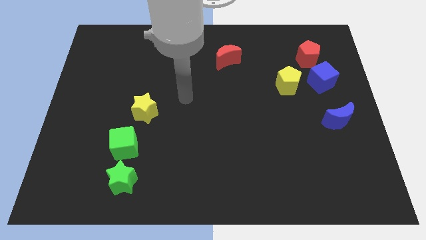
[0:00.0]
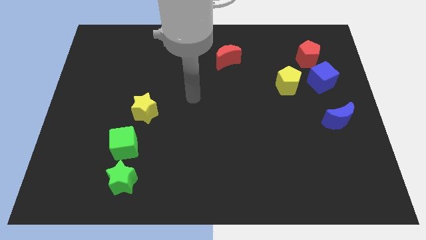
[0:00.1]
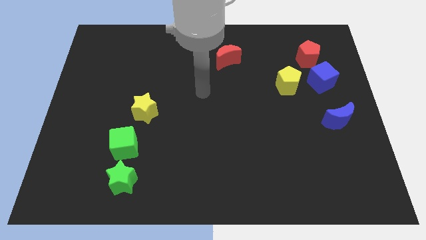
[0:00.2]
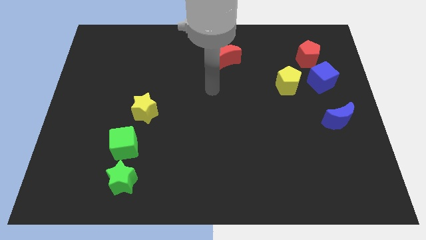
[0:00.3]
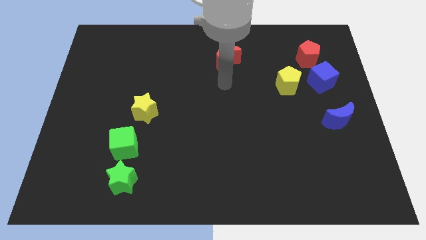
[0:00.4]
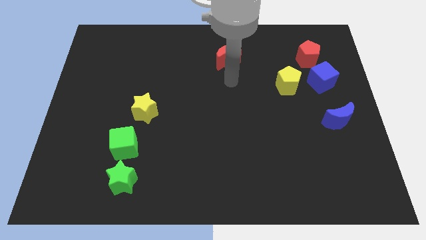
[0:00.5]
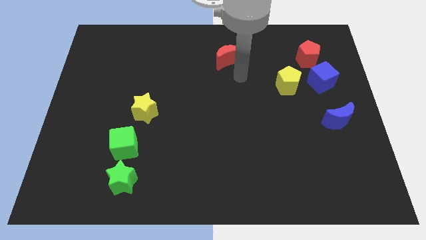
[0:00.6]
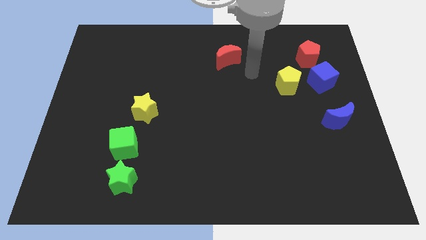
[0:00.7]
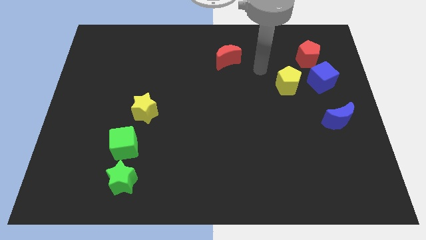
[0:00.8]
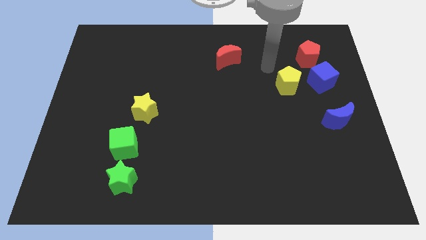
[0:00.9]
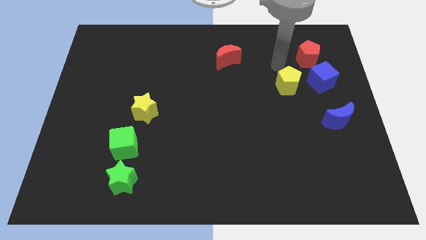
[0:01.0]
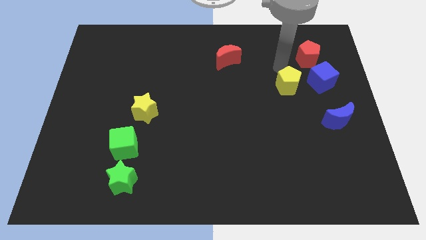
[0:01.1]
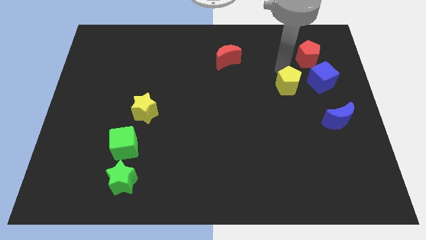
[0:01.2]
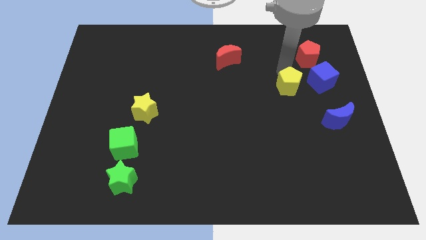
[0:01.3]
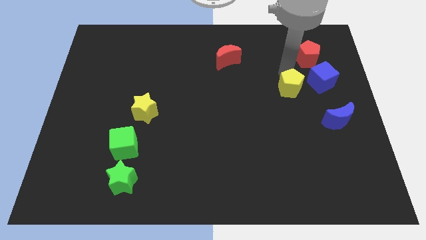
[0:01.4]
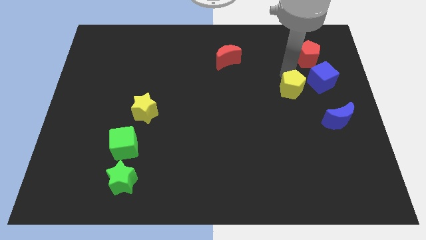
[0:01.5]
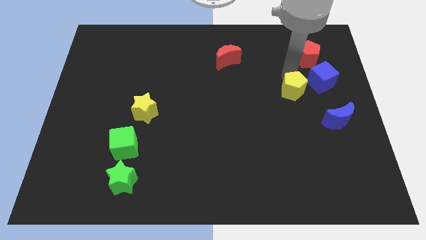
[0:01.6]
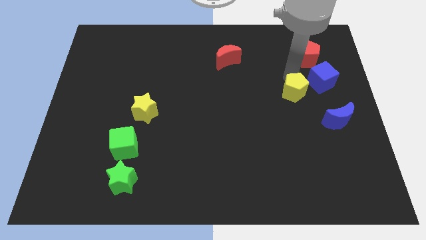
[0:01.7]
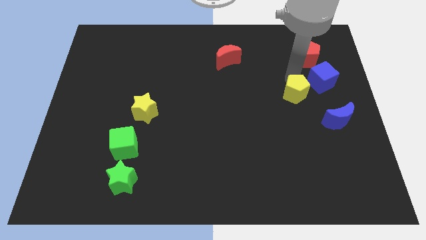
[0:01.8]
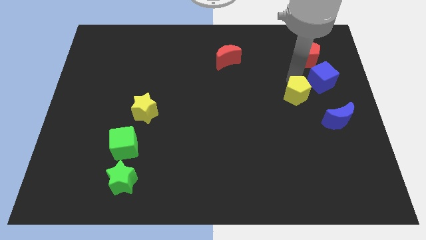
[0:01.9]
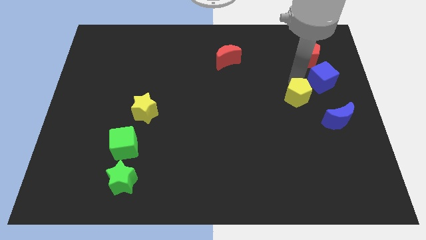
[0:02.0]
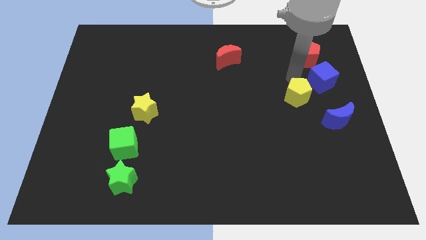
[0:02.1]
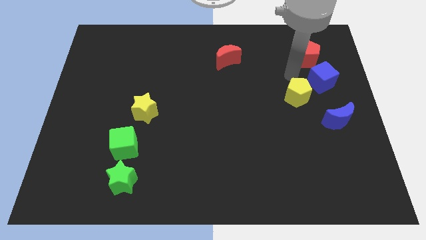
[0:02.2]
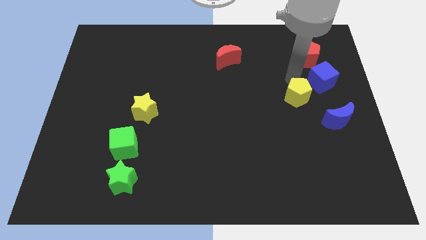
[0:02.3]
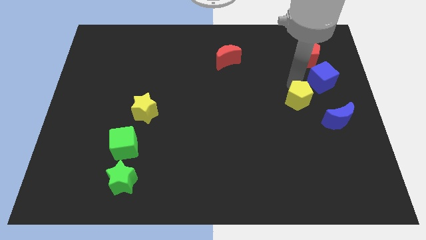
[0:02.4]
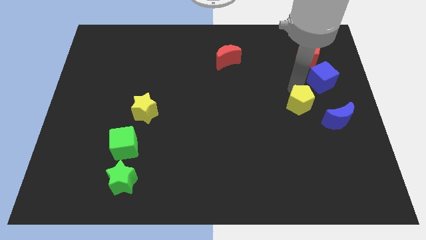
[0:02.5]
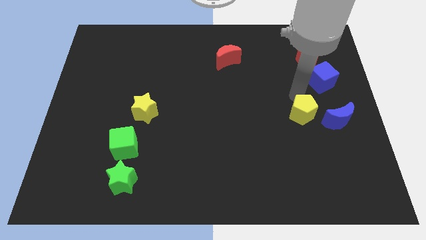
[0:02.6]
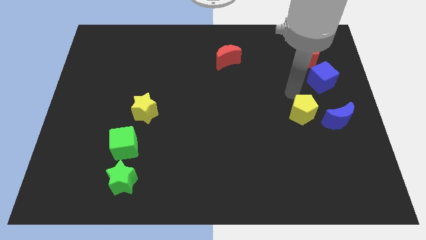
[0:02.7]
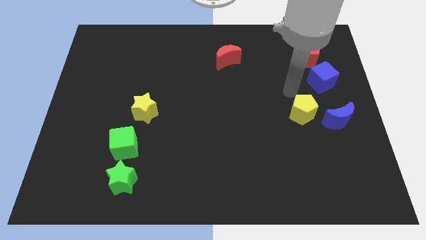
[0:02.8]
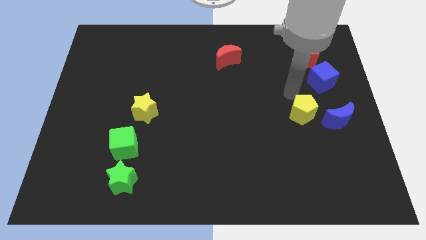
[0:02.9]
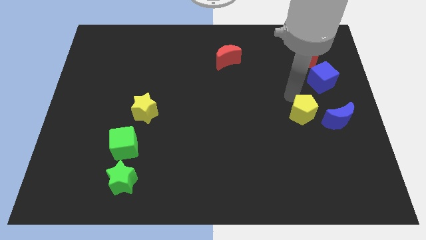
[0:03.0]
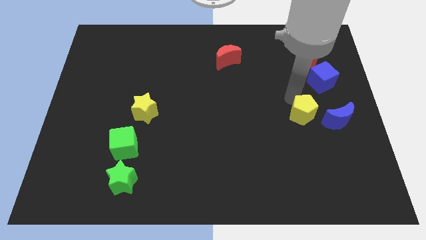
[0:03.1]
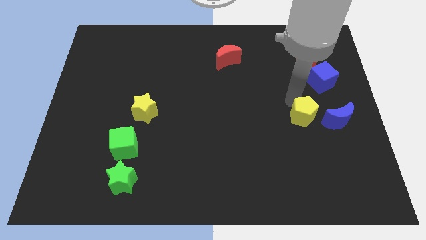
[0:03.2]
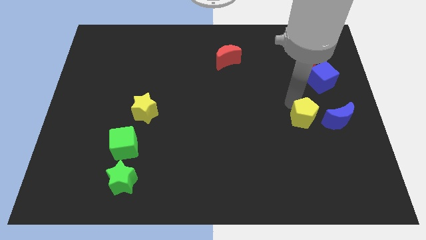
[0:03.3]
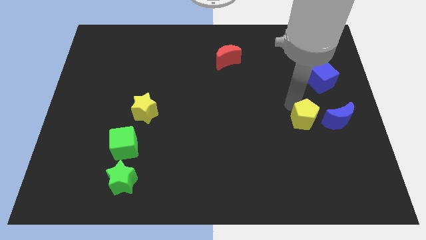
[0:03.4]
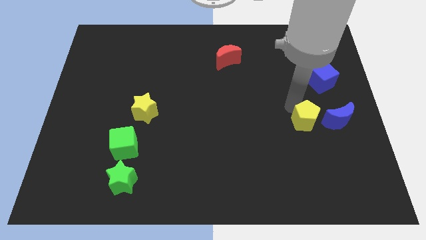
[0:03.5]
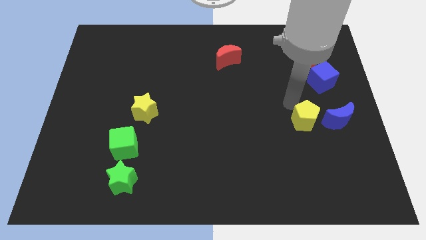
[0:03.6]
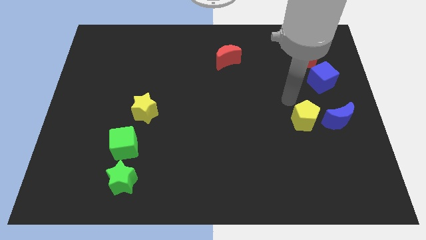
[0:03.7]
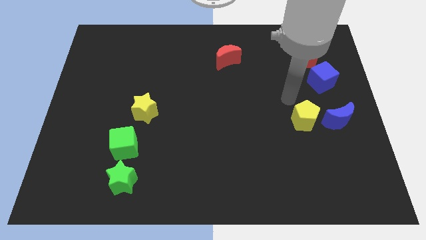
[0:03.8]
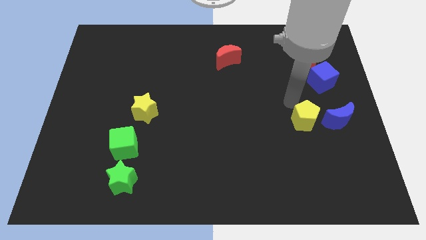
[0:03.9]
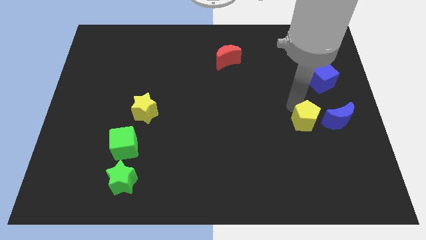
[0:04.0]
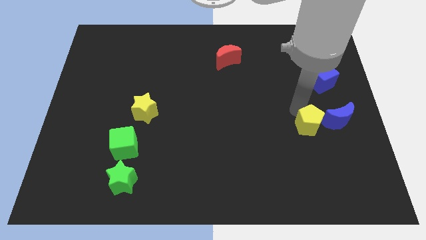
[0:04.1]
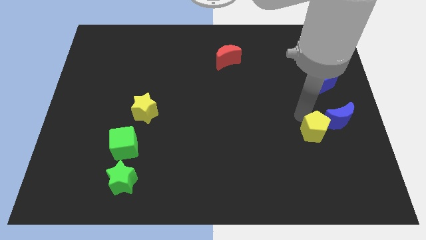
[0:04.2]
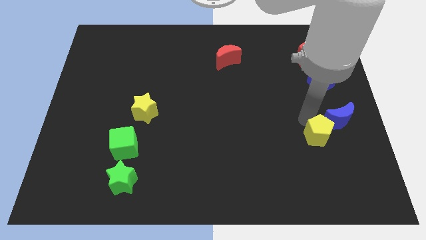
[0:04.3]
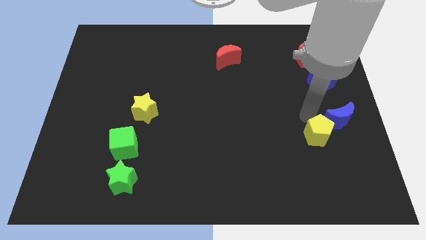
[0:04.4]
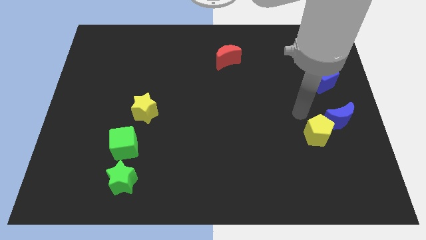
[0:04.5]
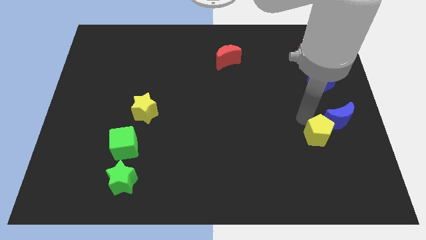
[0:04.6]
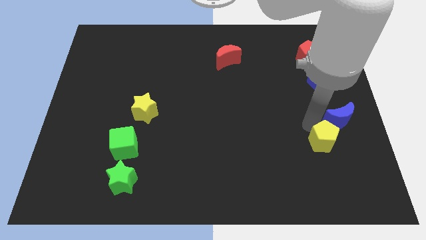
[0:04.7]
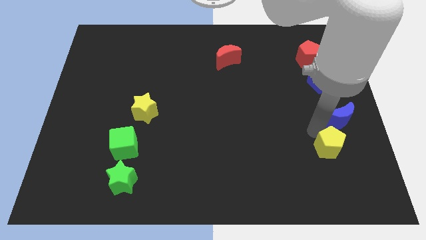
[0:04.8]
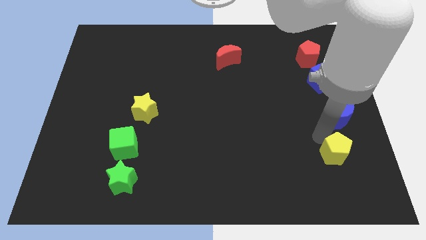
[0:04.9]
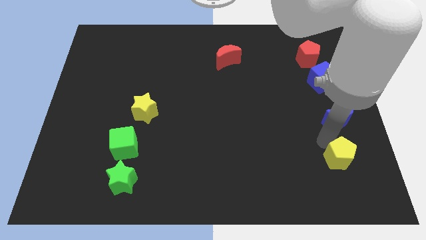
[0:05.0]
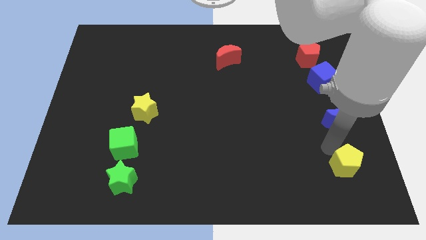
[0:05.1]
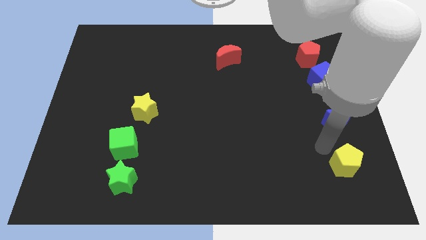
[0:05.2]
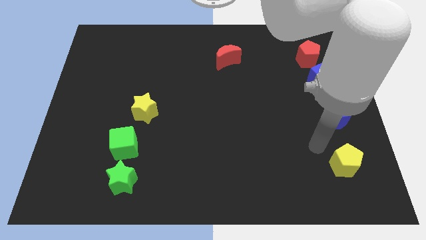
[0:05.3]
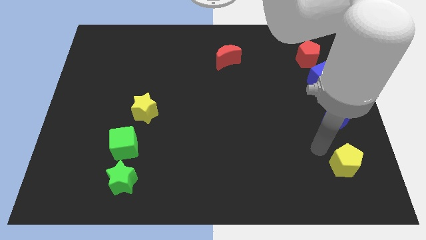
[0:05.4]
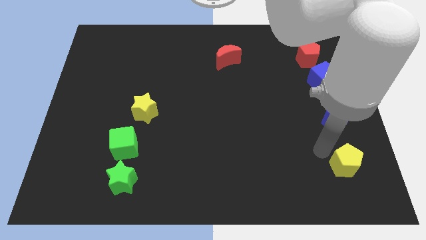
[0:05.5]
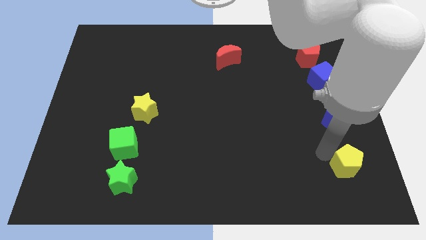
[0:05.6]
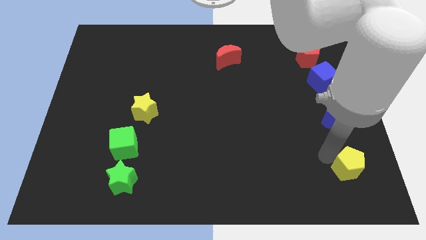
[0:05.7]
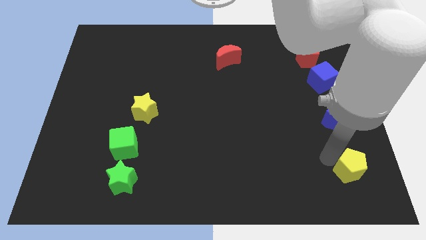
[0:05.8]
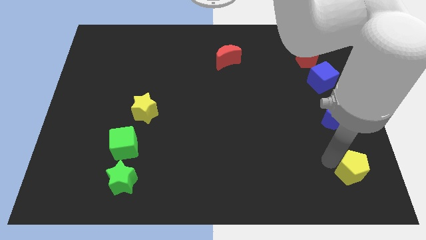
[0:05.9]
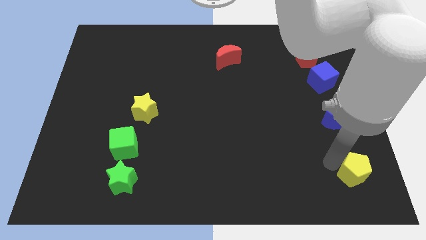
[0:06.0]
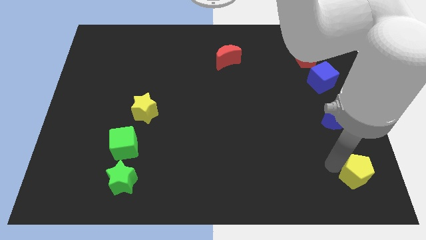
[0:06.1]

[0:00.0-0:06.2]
move the yellow pentagon to the bottom right corner
